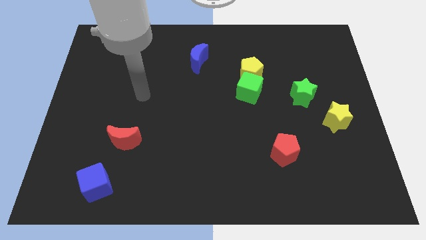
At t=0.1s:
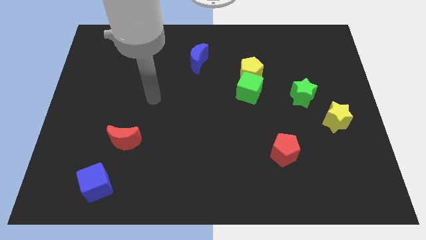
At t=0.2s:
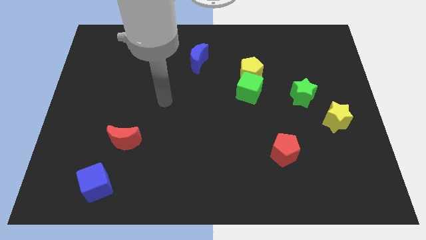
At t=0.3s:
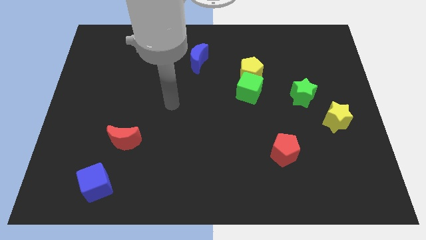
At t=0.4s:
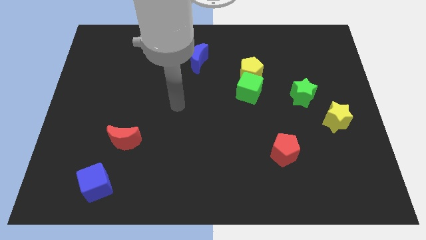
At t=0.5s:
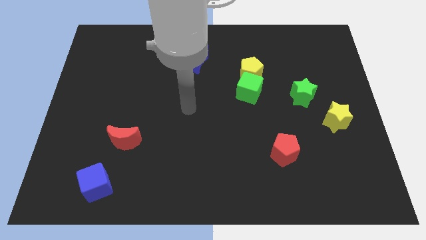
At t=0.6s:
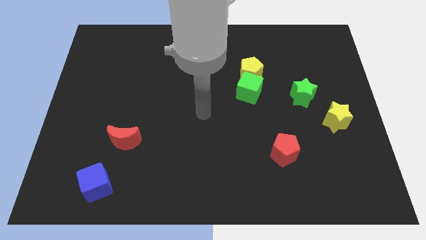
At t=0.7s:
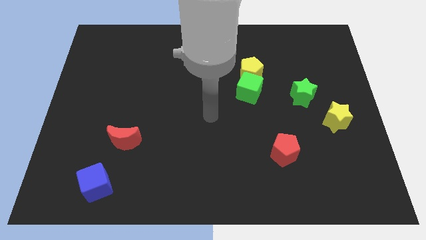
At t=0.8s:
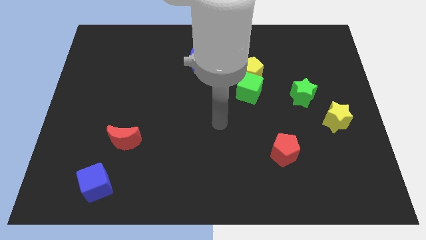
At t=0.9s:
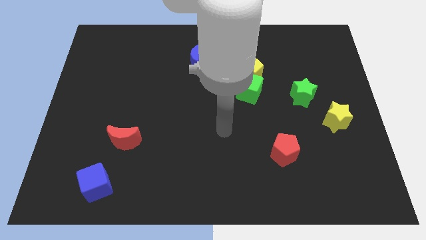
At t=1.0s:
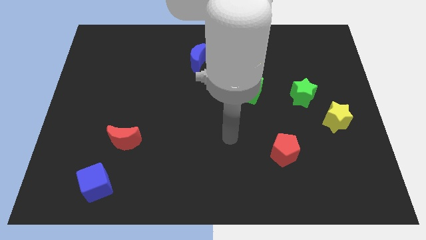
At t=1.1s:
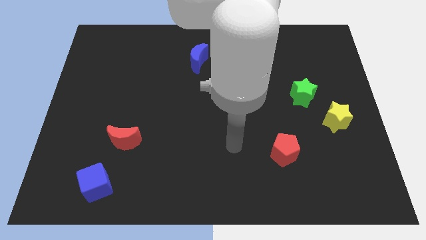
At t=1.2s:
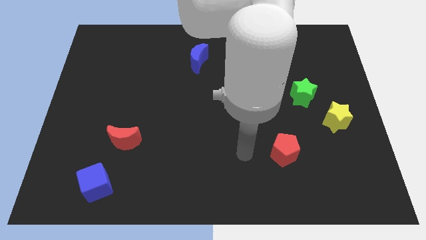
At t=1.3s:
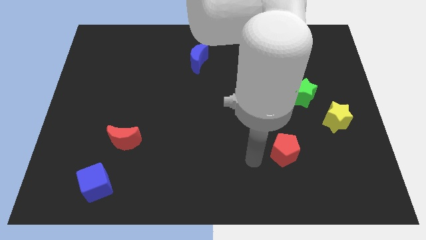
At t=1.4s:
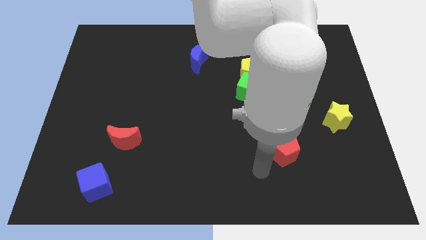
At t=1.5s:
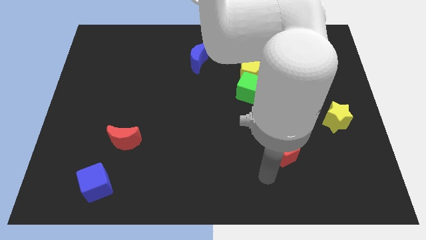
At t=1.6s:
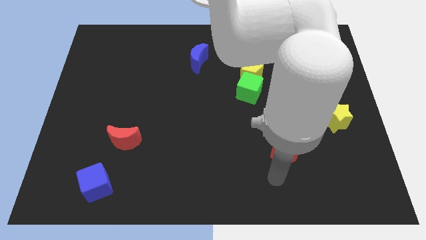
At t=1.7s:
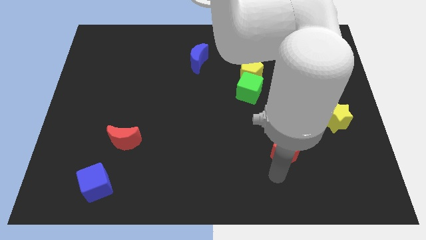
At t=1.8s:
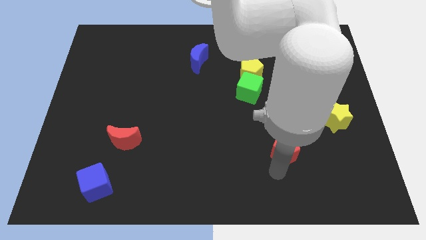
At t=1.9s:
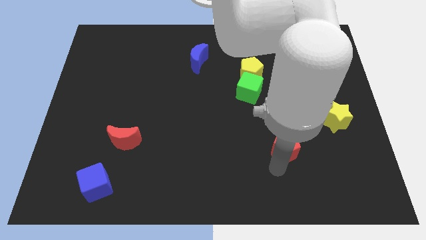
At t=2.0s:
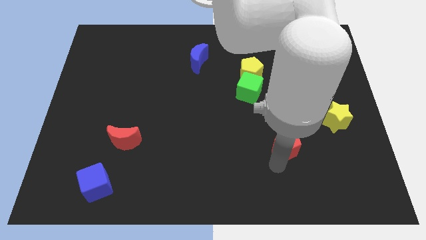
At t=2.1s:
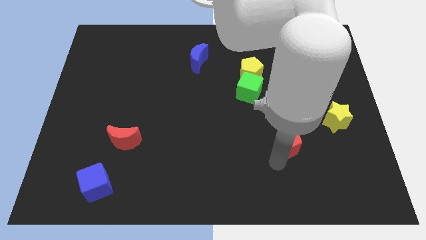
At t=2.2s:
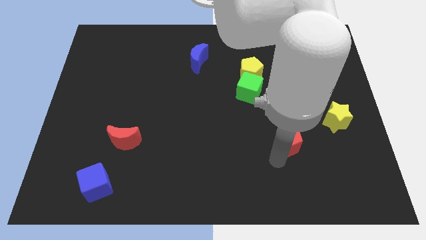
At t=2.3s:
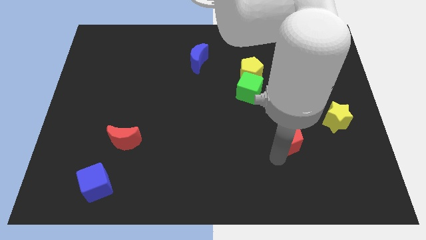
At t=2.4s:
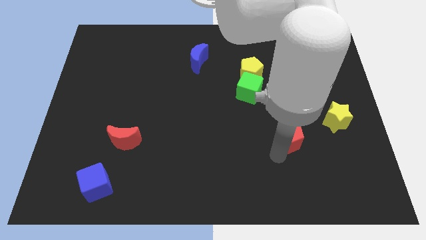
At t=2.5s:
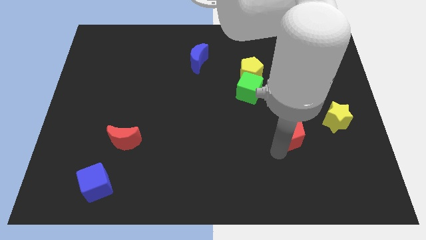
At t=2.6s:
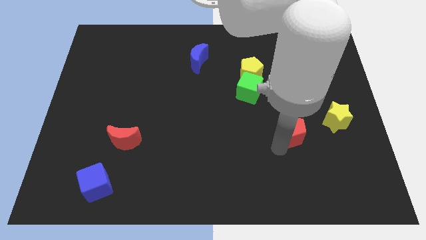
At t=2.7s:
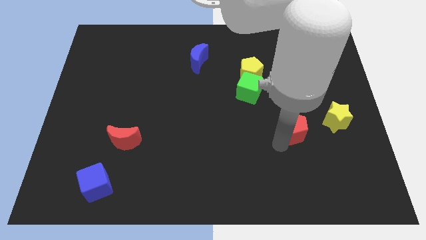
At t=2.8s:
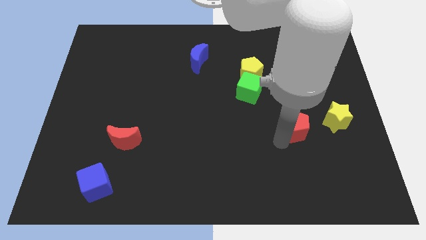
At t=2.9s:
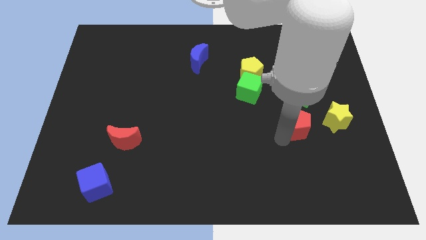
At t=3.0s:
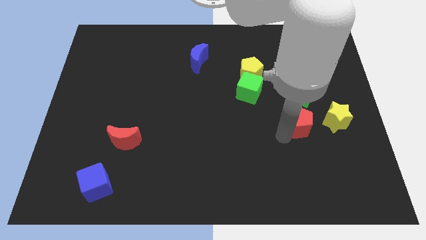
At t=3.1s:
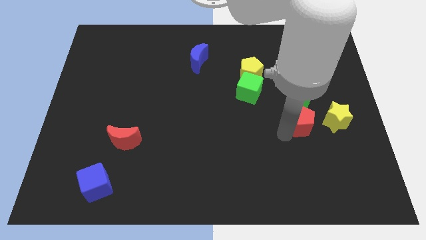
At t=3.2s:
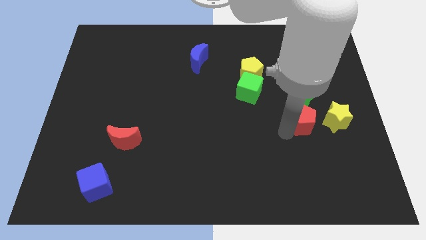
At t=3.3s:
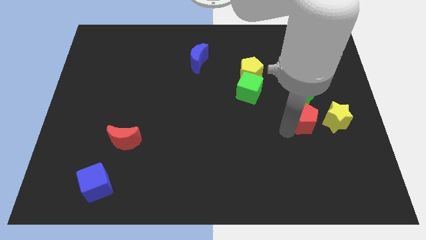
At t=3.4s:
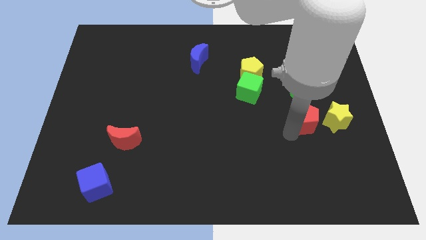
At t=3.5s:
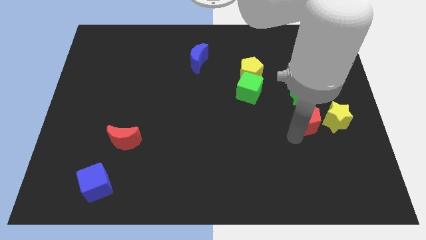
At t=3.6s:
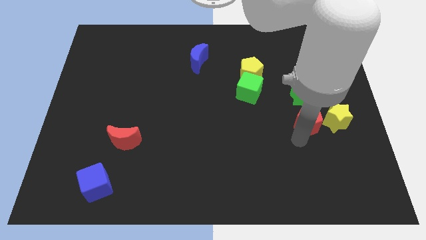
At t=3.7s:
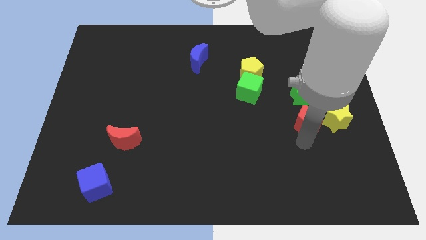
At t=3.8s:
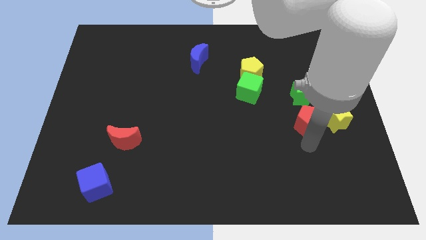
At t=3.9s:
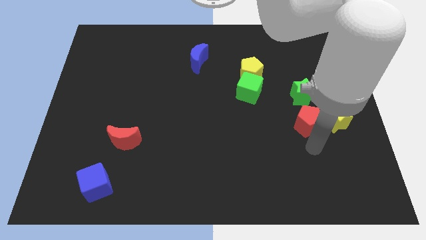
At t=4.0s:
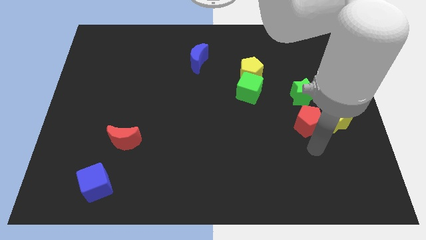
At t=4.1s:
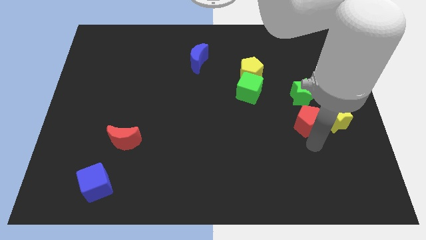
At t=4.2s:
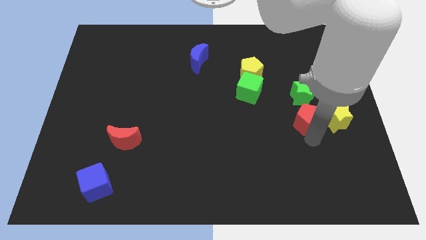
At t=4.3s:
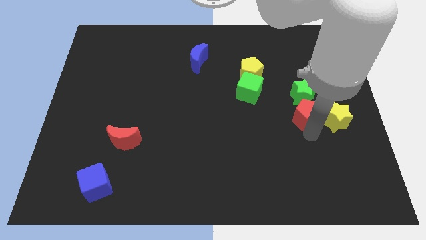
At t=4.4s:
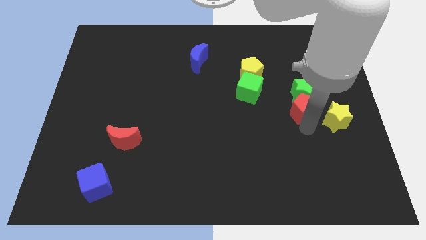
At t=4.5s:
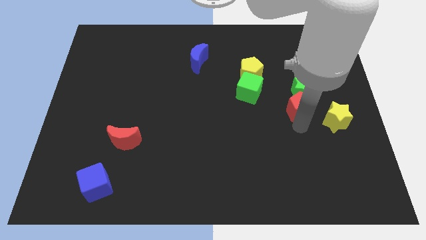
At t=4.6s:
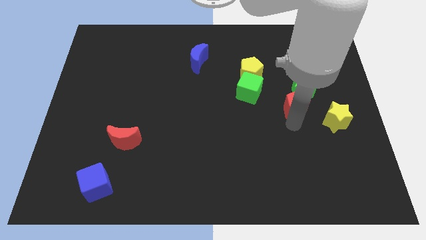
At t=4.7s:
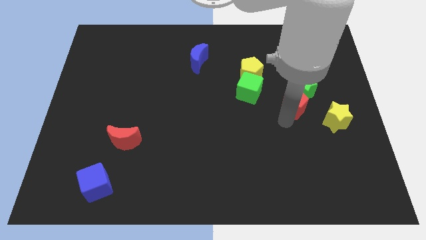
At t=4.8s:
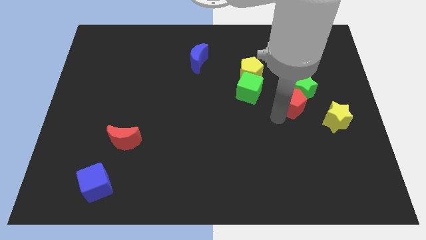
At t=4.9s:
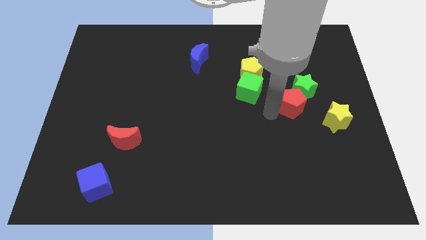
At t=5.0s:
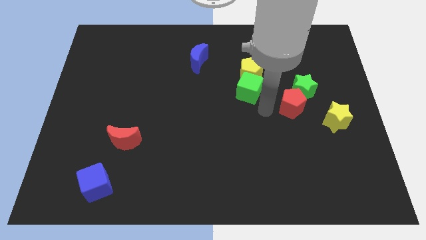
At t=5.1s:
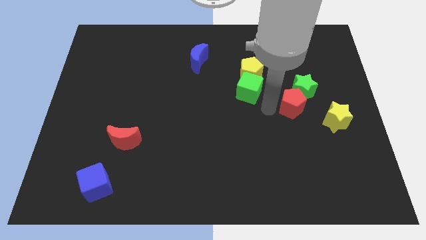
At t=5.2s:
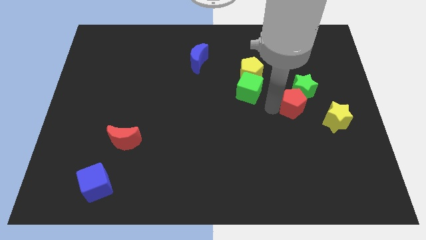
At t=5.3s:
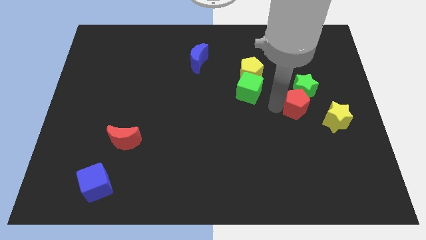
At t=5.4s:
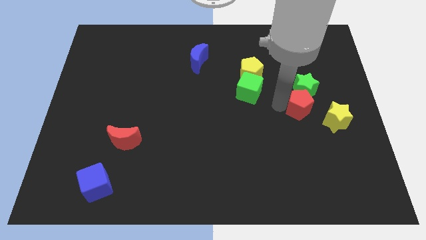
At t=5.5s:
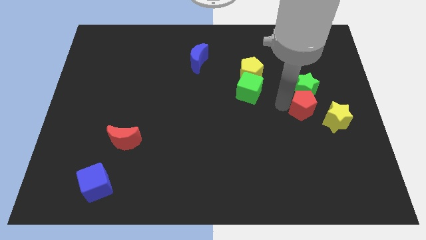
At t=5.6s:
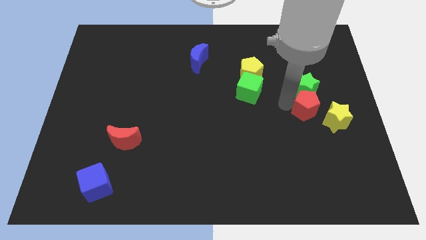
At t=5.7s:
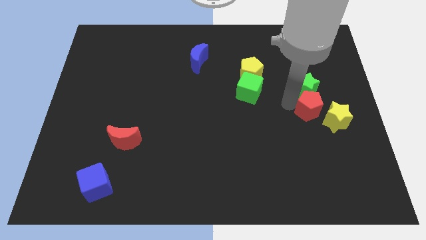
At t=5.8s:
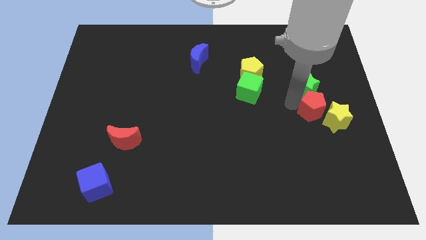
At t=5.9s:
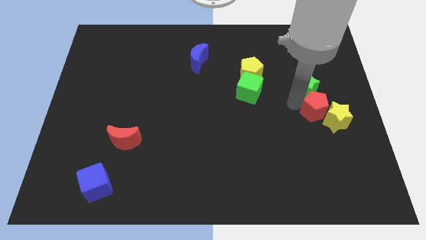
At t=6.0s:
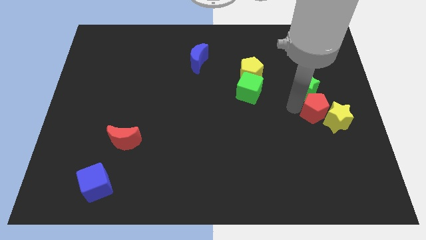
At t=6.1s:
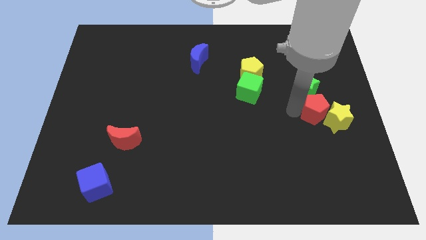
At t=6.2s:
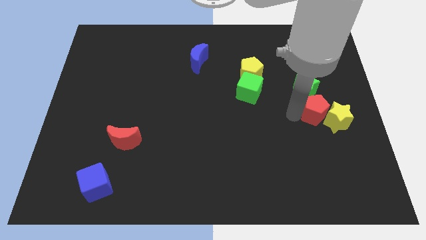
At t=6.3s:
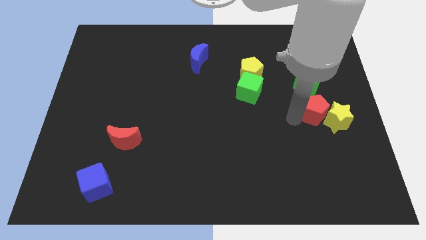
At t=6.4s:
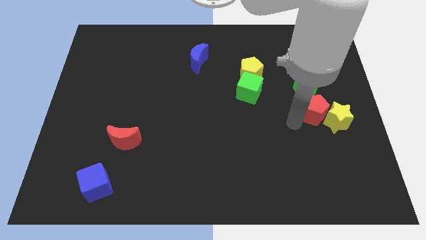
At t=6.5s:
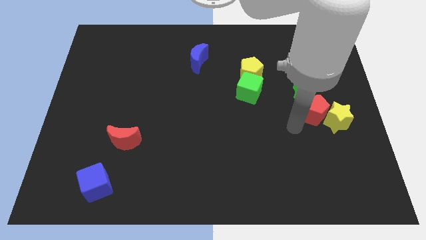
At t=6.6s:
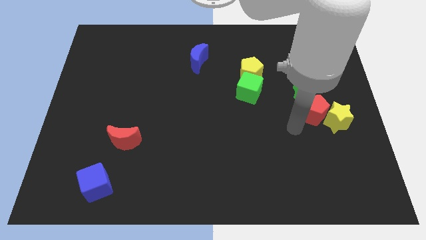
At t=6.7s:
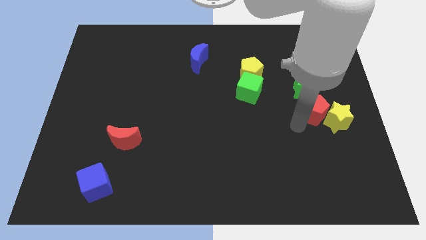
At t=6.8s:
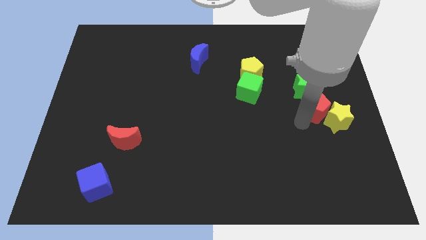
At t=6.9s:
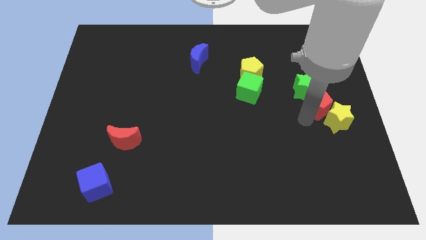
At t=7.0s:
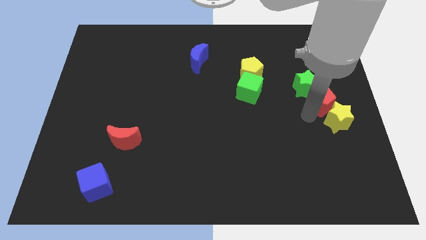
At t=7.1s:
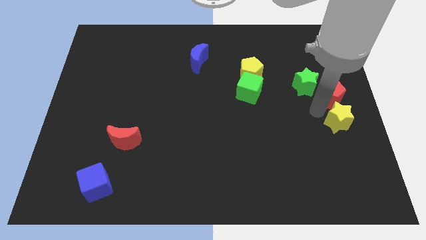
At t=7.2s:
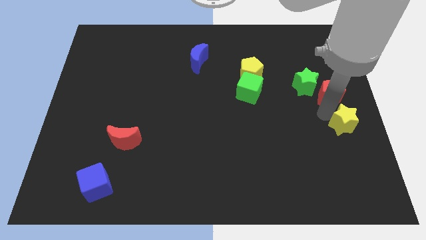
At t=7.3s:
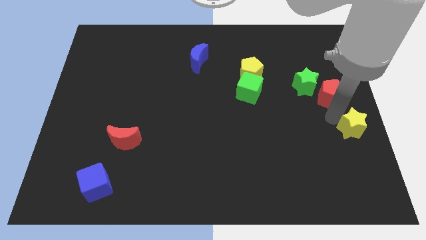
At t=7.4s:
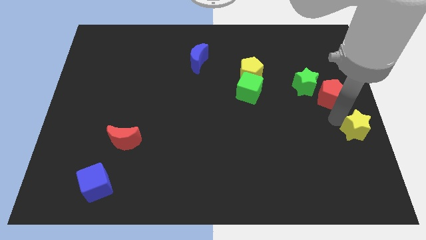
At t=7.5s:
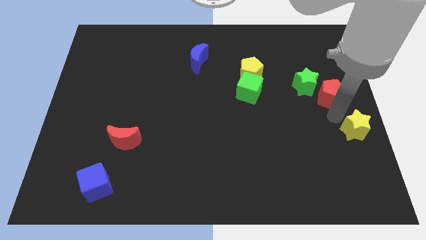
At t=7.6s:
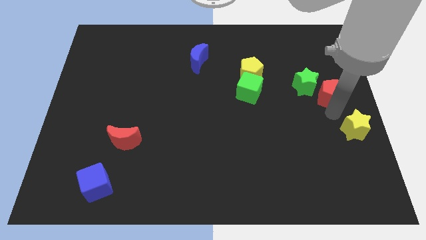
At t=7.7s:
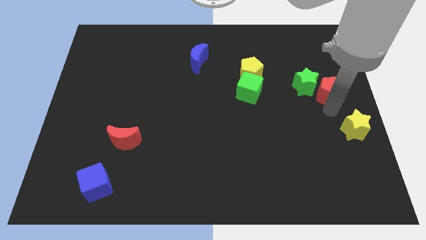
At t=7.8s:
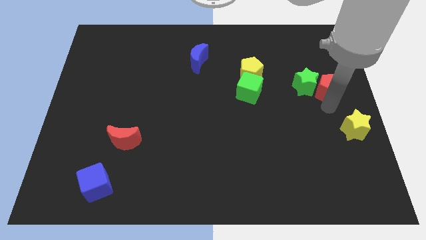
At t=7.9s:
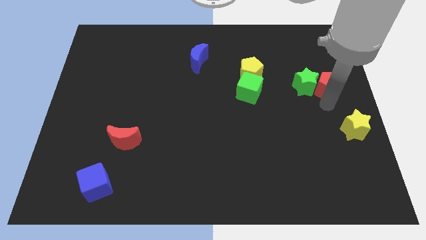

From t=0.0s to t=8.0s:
slide the red pentagon to the top right of the green star
